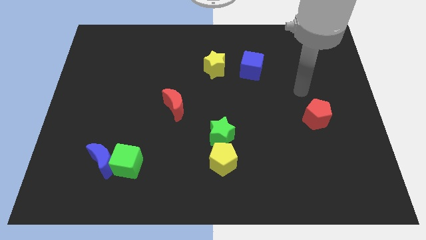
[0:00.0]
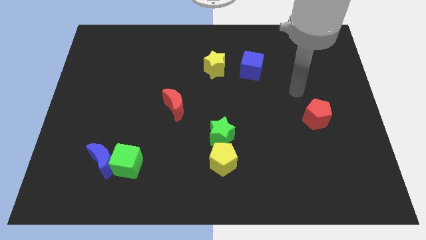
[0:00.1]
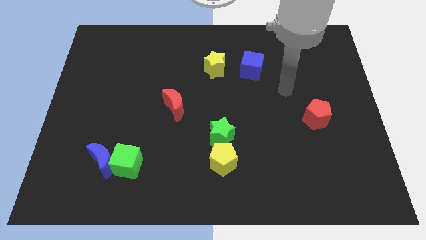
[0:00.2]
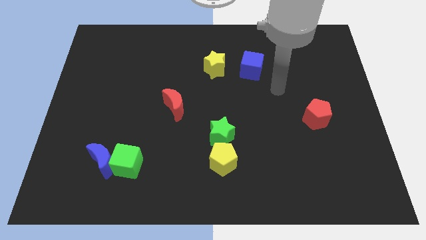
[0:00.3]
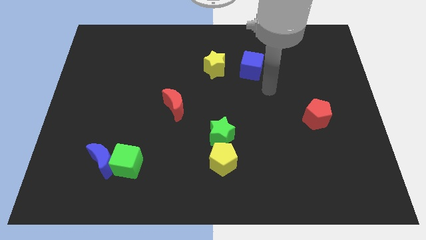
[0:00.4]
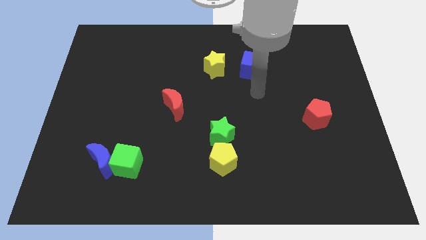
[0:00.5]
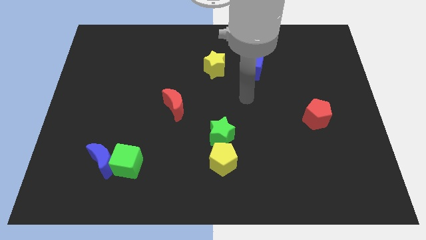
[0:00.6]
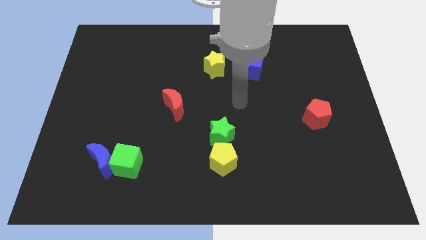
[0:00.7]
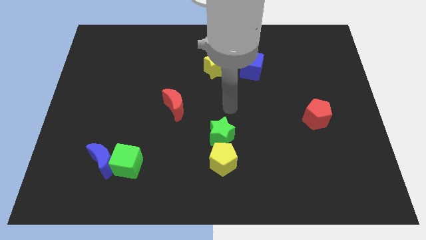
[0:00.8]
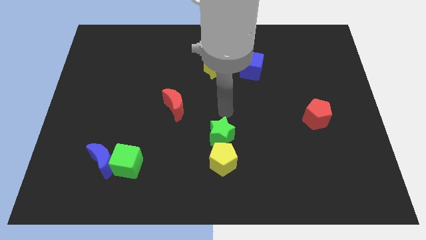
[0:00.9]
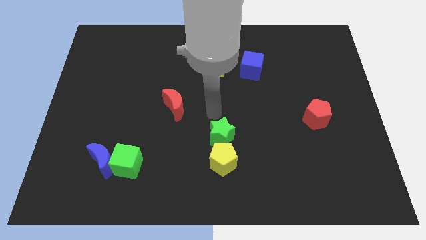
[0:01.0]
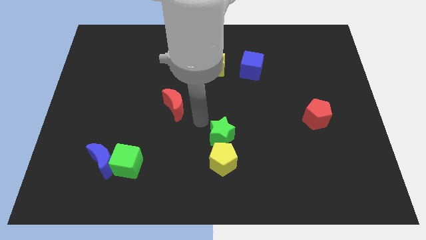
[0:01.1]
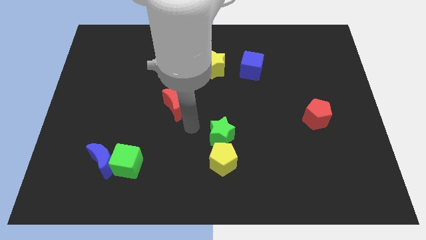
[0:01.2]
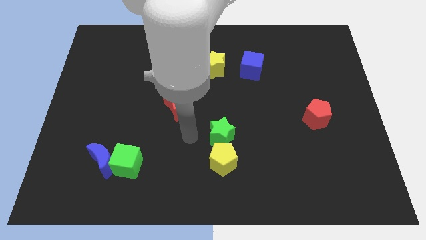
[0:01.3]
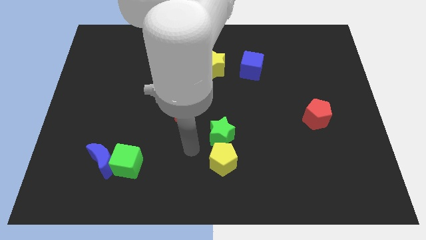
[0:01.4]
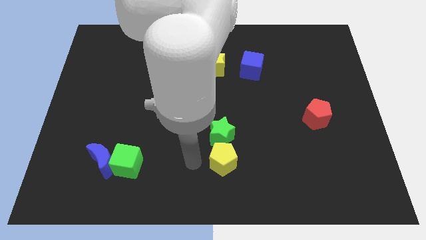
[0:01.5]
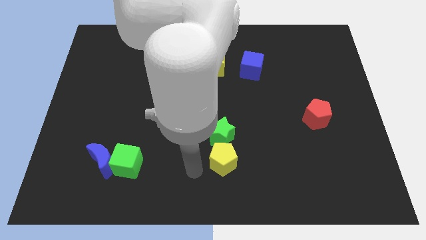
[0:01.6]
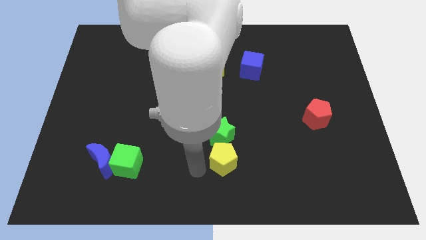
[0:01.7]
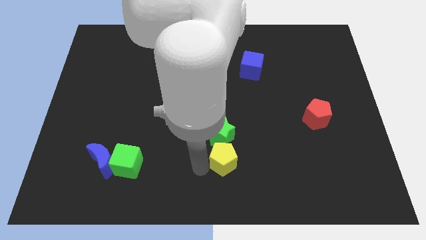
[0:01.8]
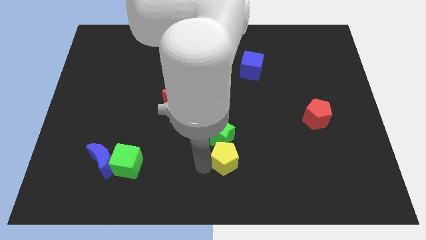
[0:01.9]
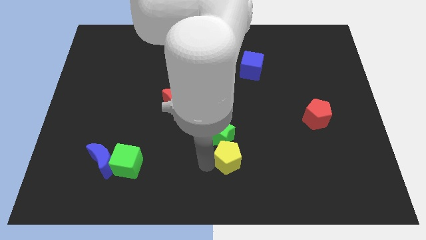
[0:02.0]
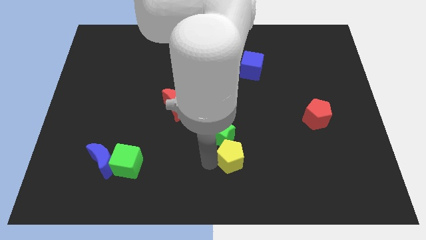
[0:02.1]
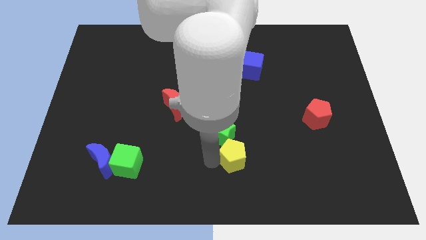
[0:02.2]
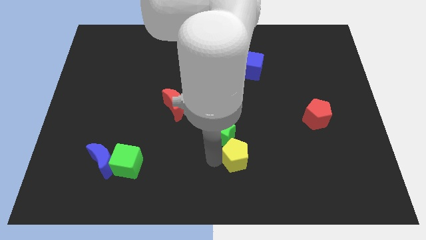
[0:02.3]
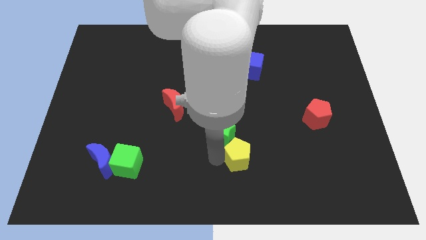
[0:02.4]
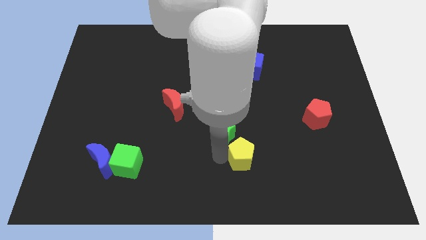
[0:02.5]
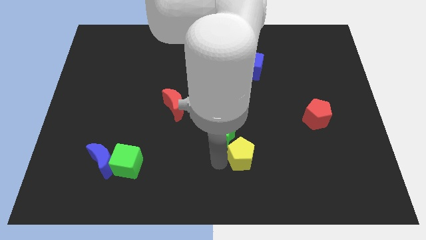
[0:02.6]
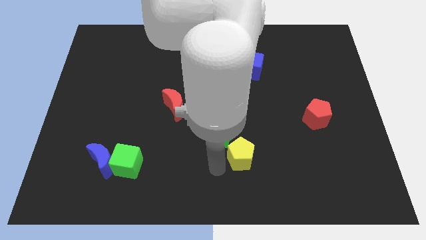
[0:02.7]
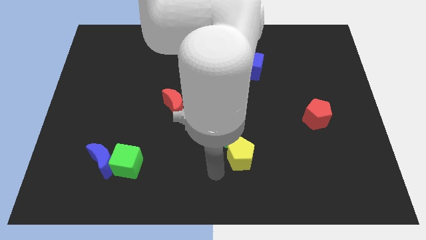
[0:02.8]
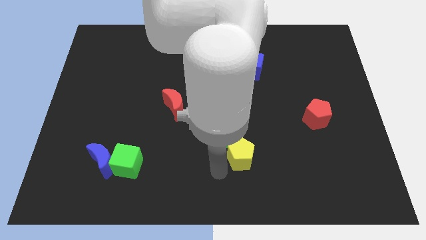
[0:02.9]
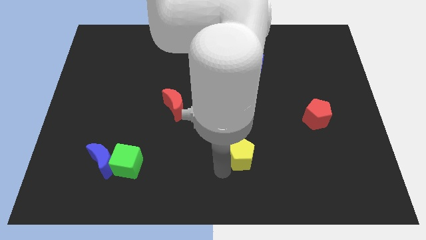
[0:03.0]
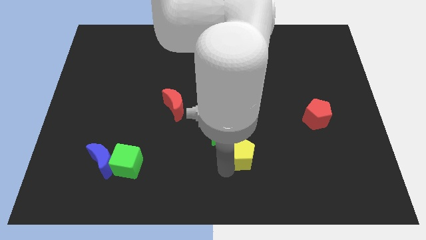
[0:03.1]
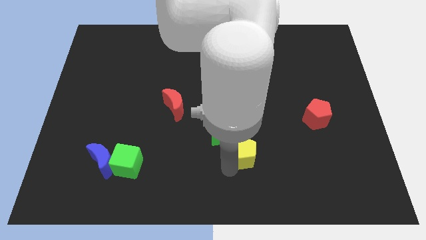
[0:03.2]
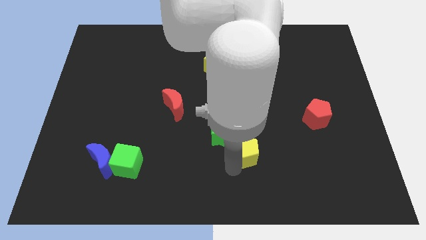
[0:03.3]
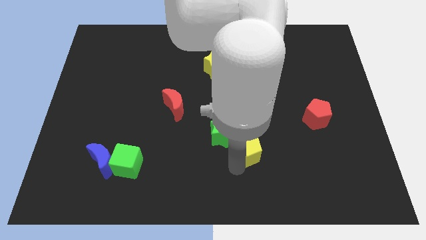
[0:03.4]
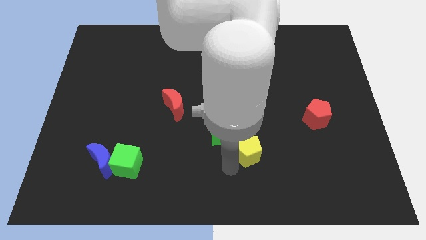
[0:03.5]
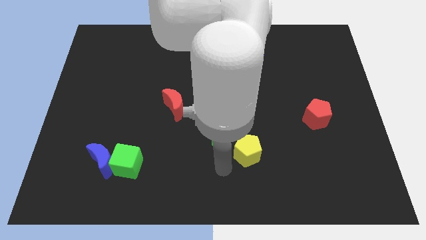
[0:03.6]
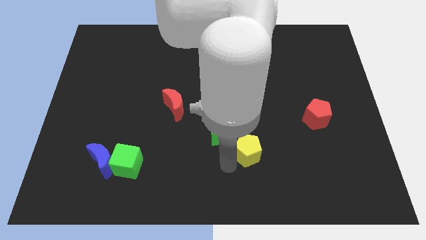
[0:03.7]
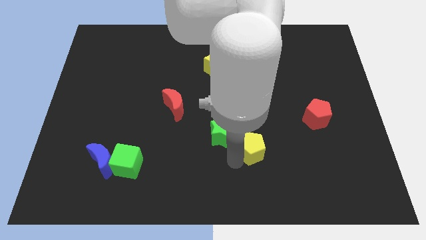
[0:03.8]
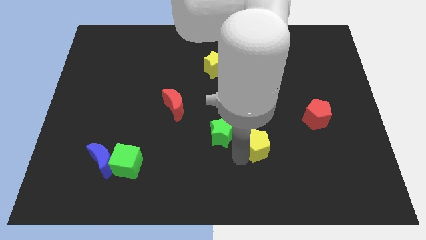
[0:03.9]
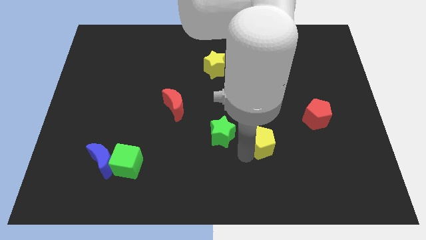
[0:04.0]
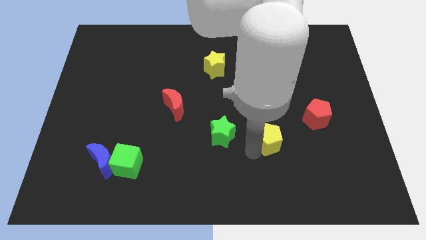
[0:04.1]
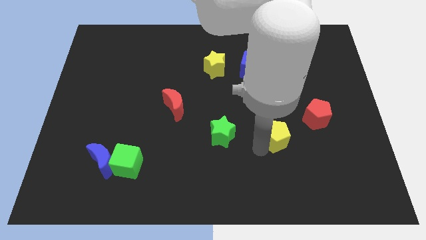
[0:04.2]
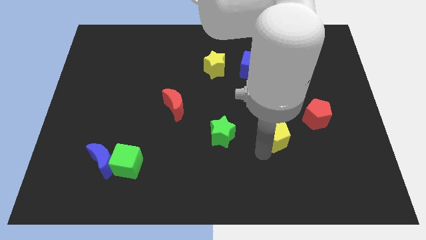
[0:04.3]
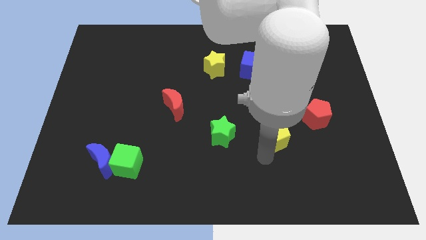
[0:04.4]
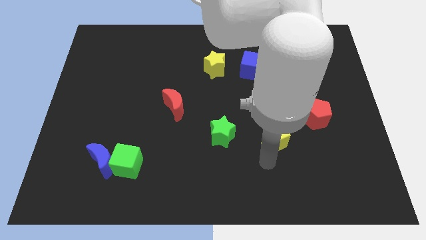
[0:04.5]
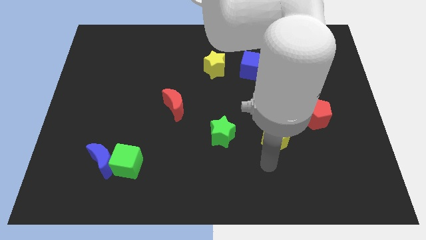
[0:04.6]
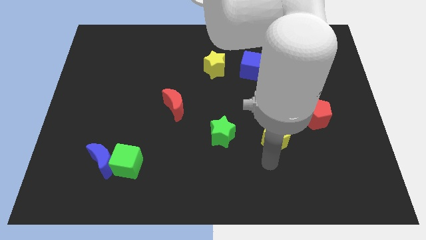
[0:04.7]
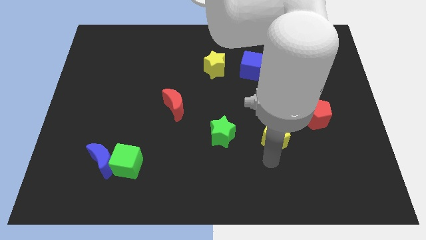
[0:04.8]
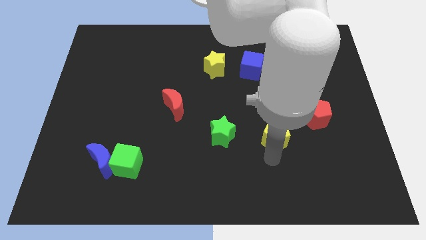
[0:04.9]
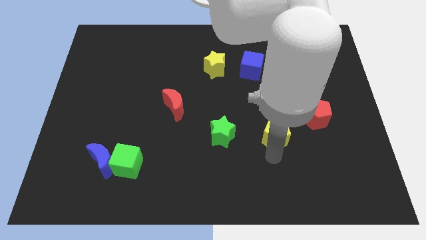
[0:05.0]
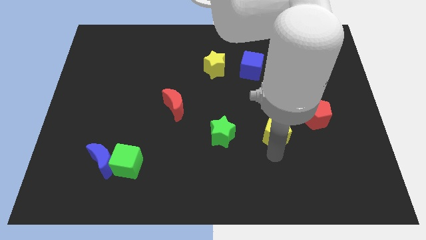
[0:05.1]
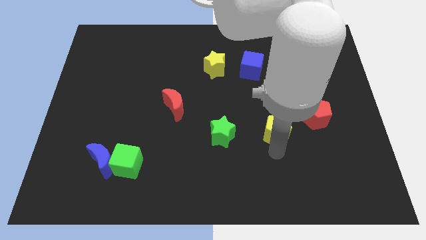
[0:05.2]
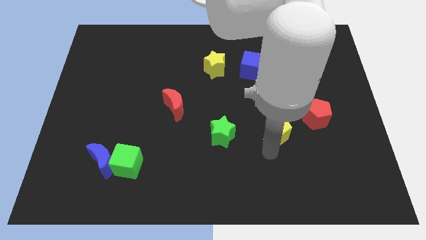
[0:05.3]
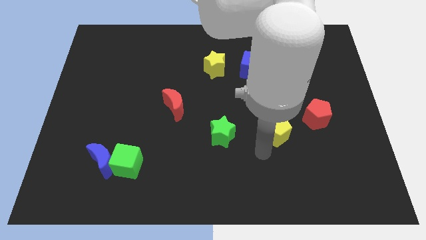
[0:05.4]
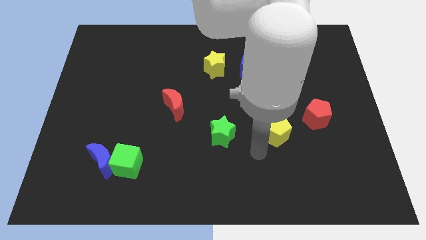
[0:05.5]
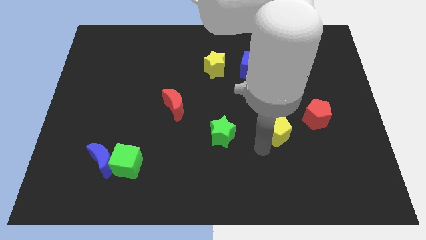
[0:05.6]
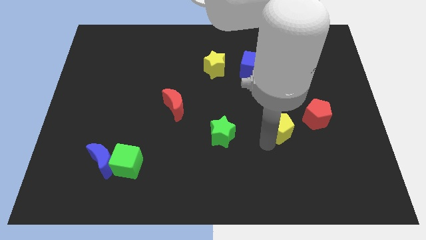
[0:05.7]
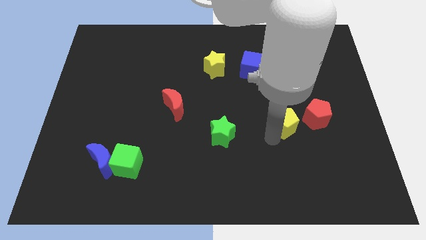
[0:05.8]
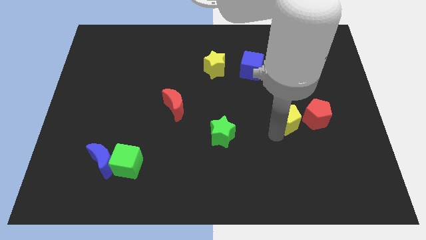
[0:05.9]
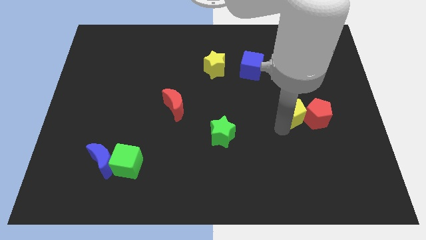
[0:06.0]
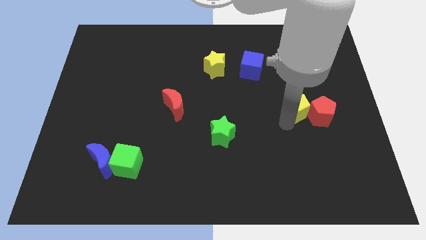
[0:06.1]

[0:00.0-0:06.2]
move the yellow pentagon diagonally upwards and right

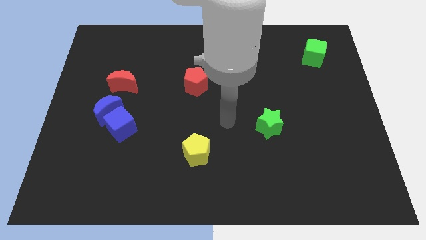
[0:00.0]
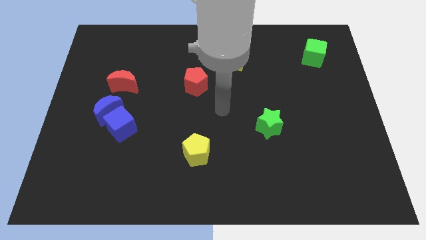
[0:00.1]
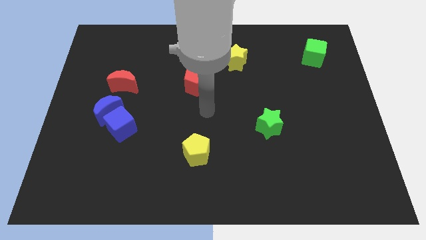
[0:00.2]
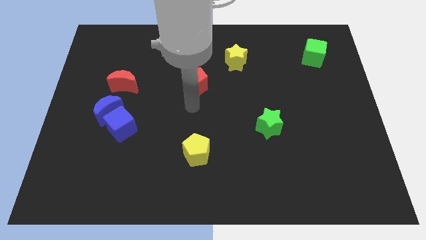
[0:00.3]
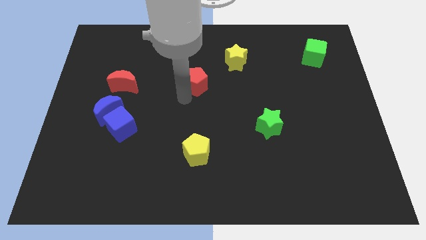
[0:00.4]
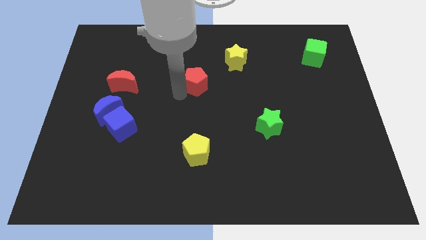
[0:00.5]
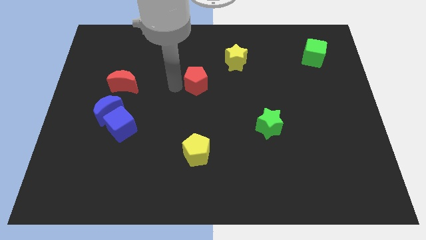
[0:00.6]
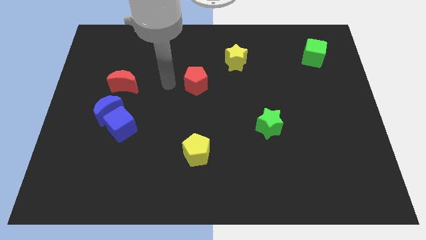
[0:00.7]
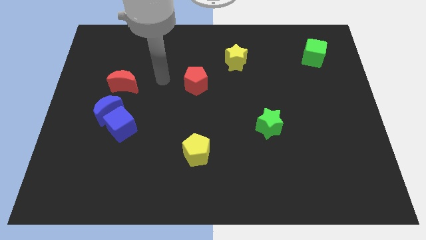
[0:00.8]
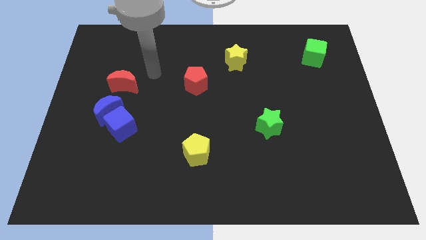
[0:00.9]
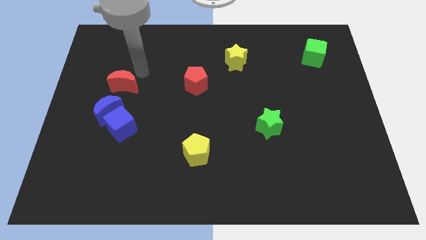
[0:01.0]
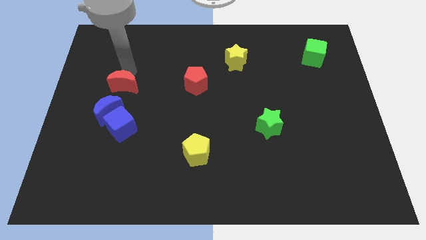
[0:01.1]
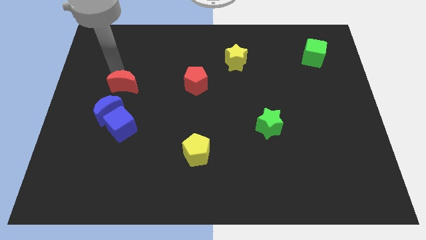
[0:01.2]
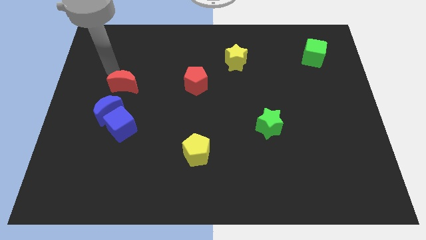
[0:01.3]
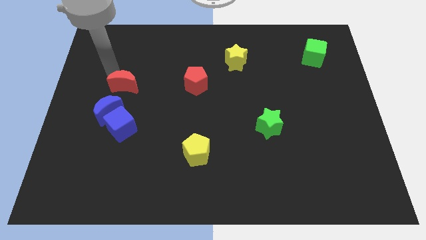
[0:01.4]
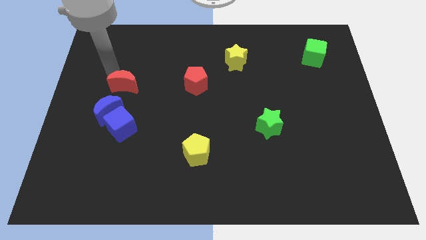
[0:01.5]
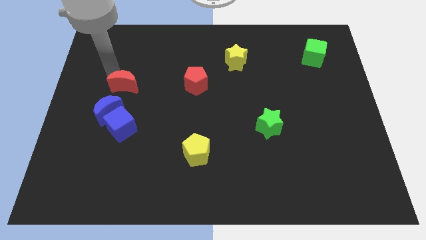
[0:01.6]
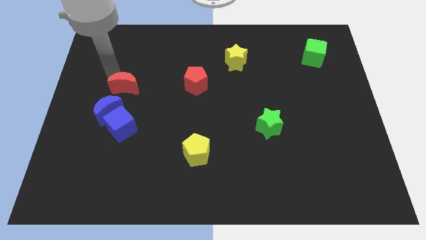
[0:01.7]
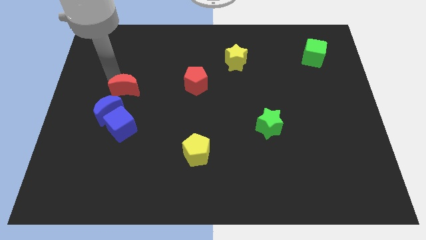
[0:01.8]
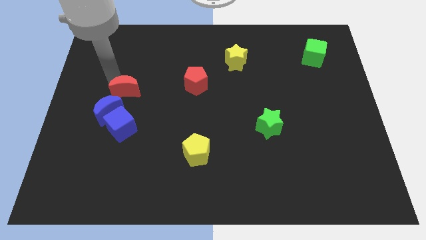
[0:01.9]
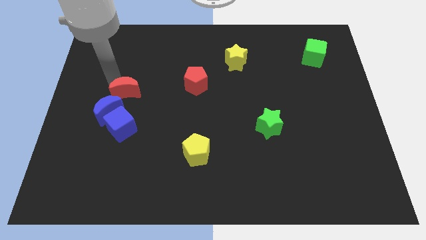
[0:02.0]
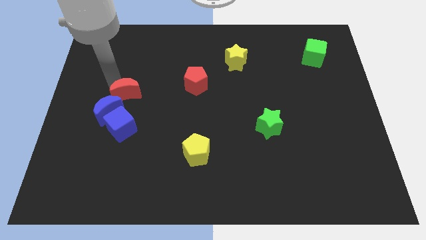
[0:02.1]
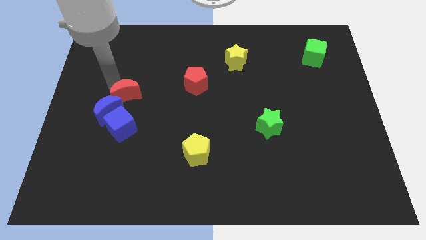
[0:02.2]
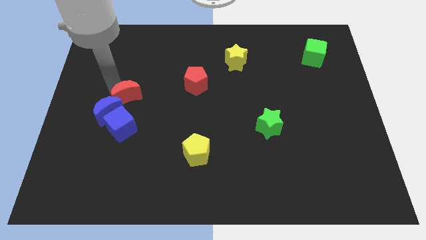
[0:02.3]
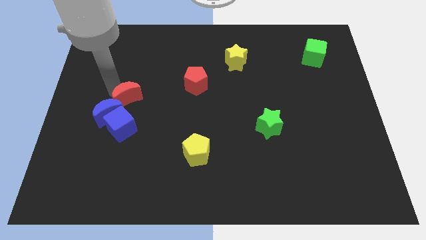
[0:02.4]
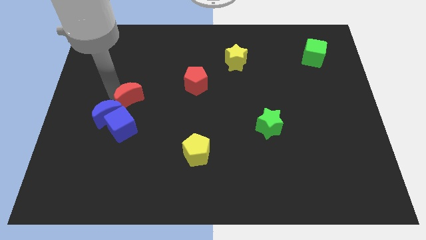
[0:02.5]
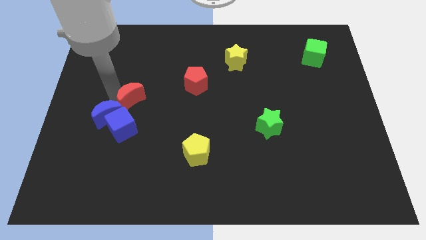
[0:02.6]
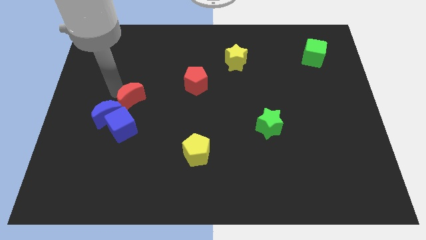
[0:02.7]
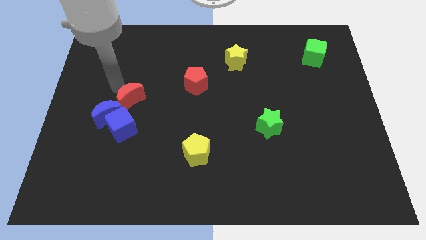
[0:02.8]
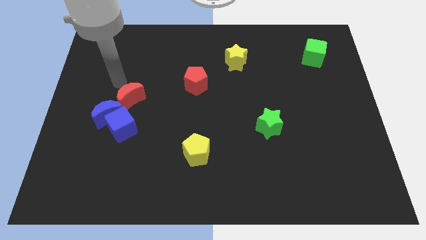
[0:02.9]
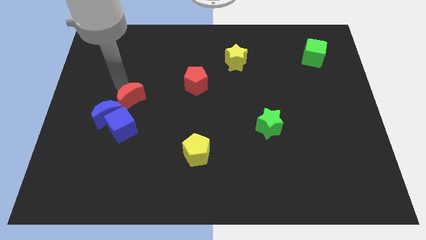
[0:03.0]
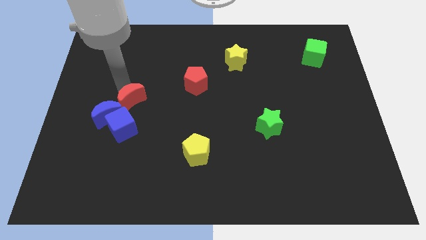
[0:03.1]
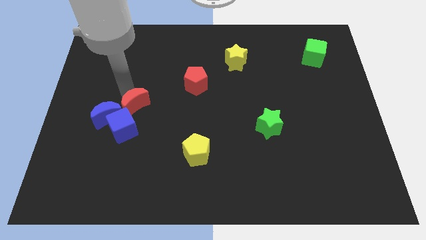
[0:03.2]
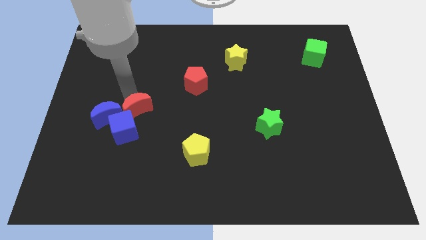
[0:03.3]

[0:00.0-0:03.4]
move the red moon downwards somewhat
